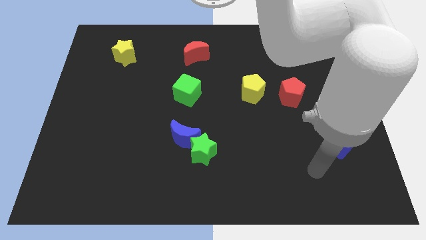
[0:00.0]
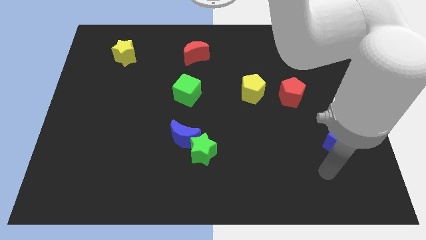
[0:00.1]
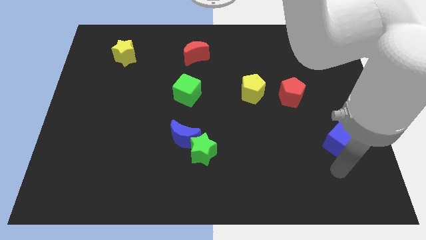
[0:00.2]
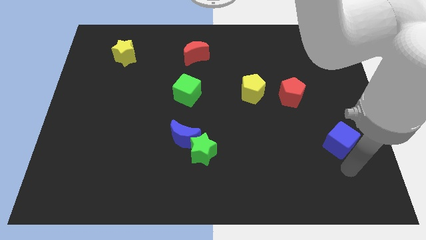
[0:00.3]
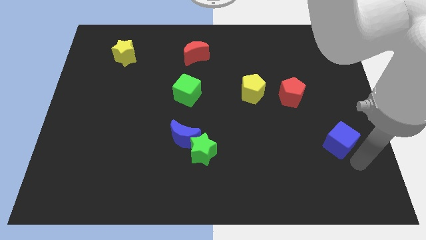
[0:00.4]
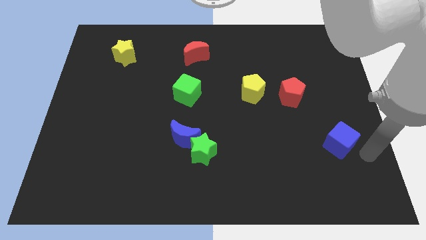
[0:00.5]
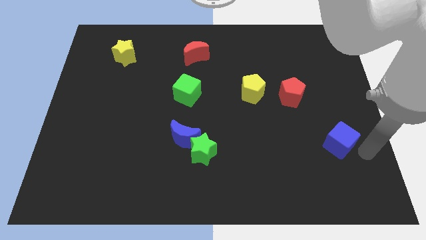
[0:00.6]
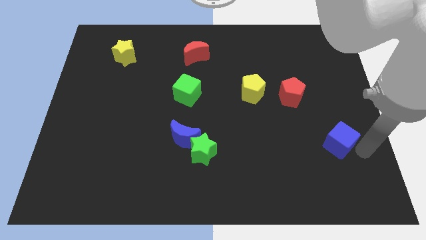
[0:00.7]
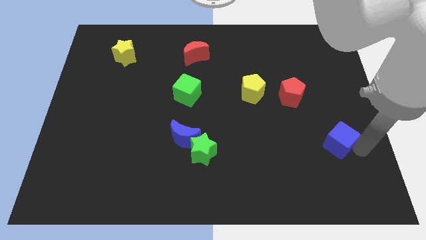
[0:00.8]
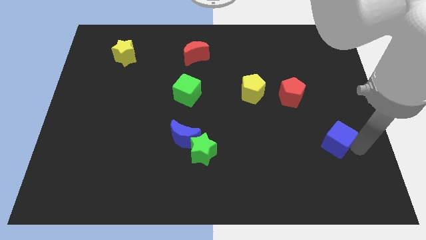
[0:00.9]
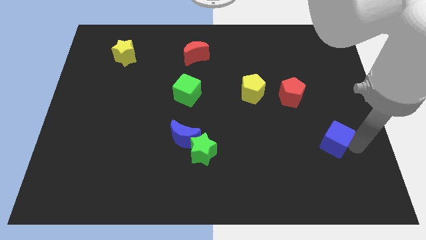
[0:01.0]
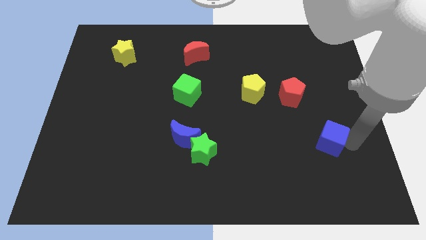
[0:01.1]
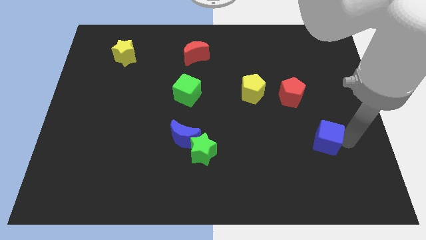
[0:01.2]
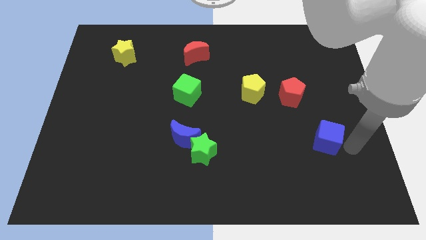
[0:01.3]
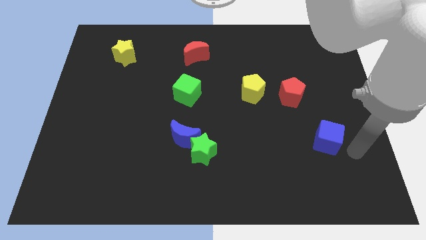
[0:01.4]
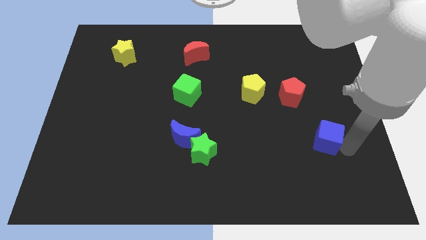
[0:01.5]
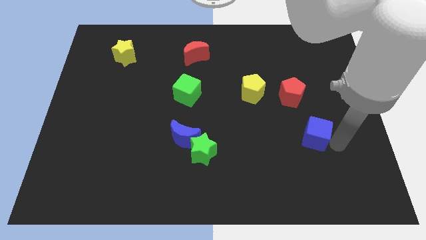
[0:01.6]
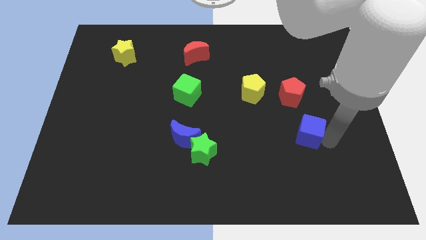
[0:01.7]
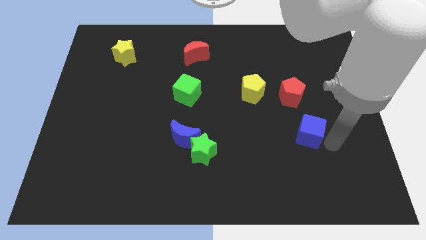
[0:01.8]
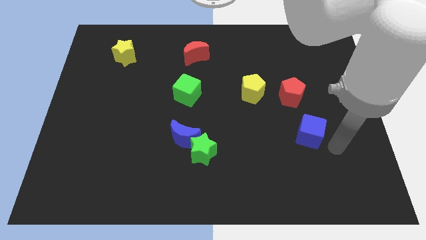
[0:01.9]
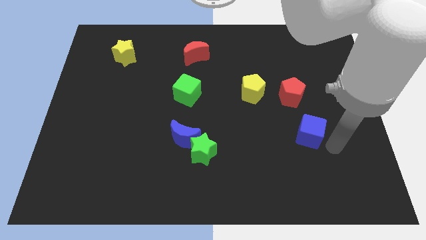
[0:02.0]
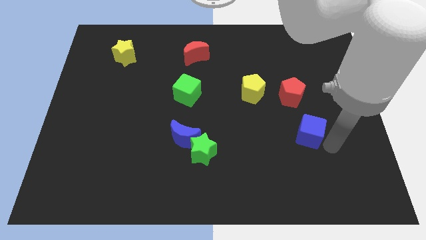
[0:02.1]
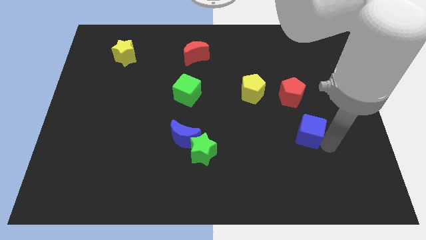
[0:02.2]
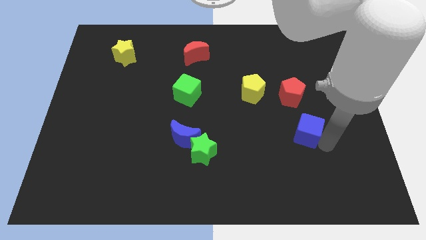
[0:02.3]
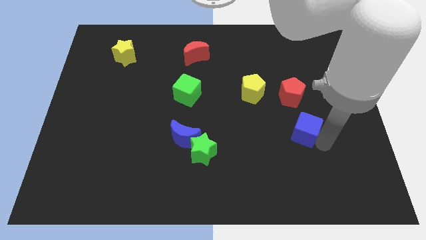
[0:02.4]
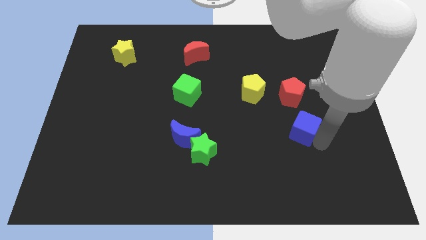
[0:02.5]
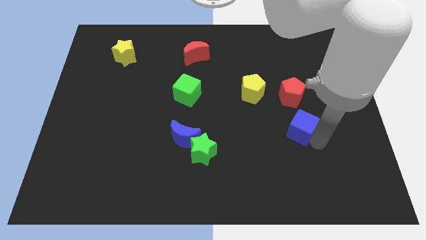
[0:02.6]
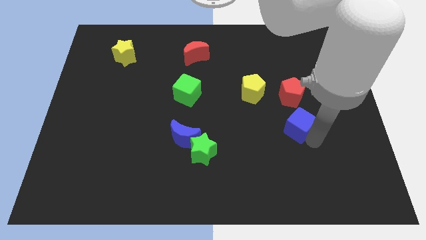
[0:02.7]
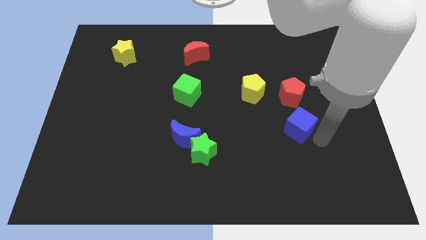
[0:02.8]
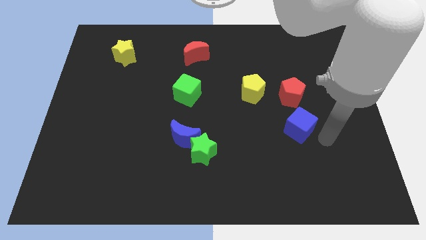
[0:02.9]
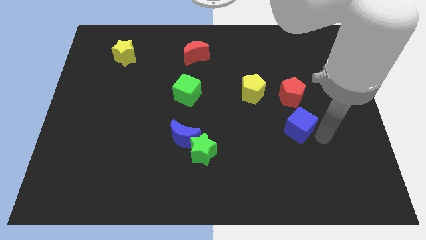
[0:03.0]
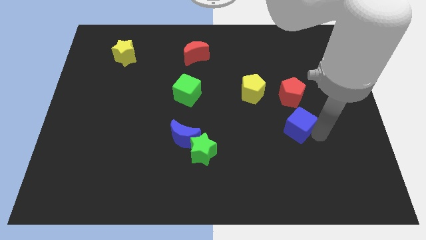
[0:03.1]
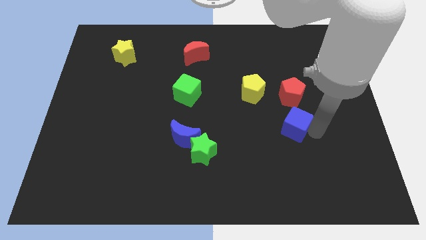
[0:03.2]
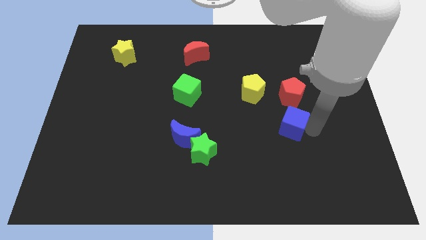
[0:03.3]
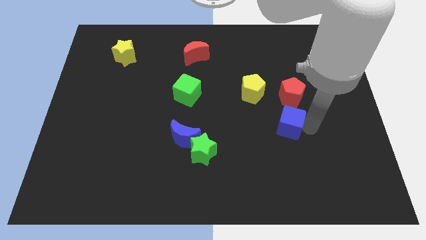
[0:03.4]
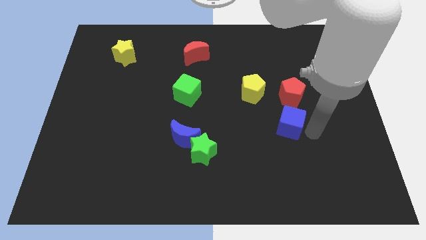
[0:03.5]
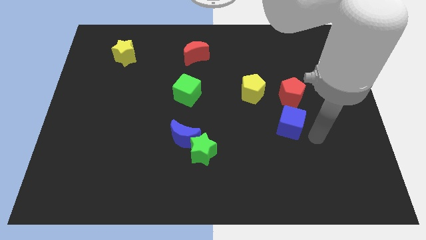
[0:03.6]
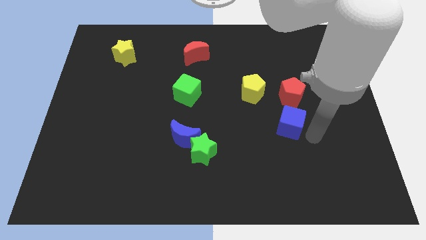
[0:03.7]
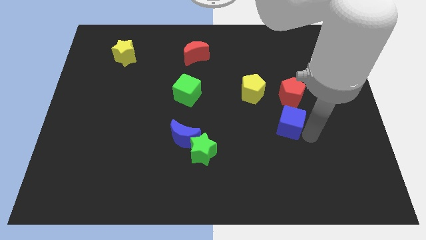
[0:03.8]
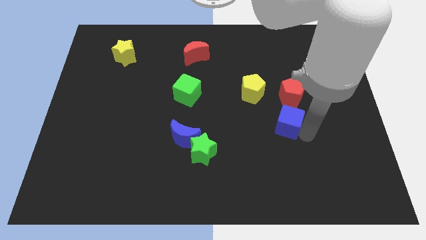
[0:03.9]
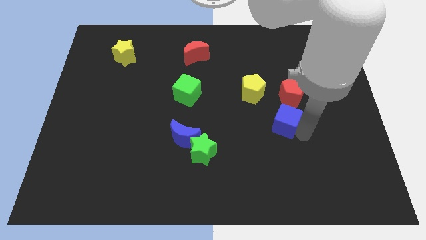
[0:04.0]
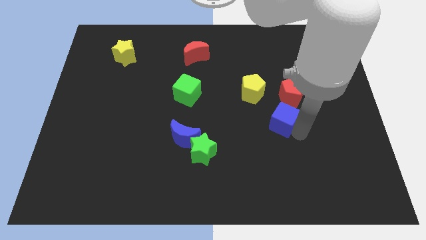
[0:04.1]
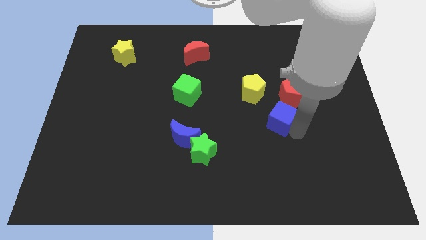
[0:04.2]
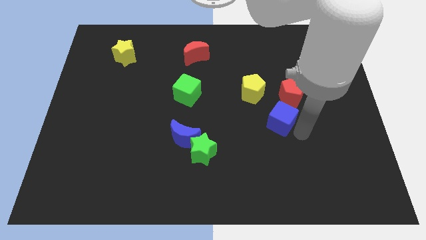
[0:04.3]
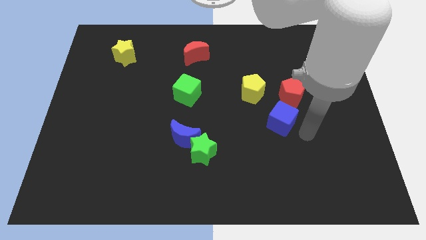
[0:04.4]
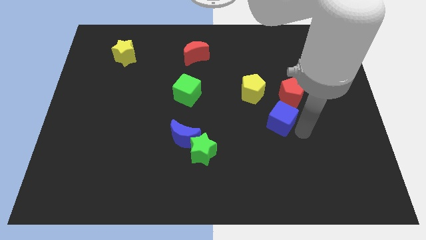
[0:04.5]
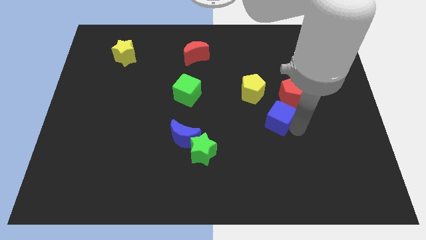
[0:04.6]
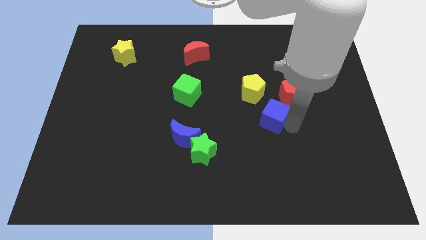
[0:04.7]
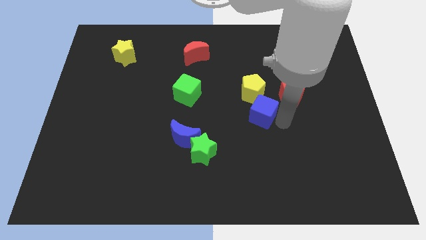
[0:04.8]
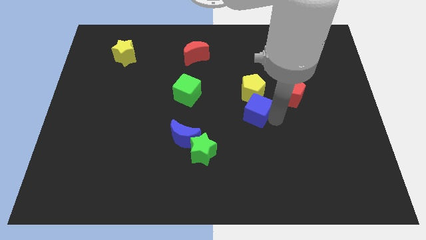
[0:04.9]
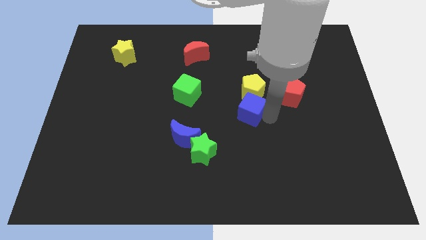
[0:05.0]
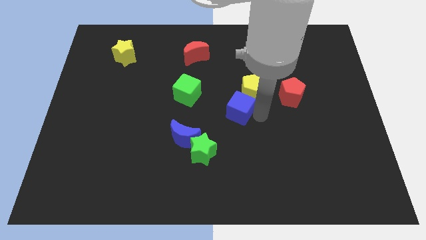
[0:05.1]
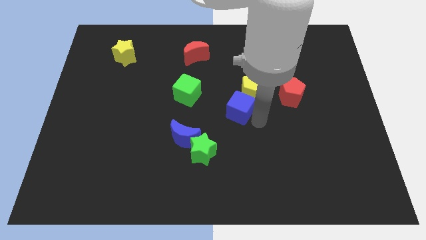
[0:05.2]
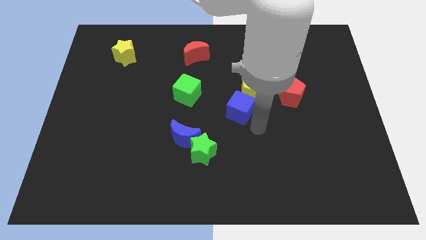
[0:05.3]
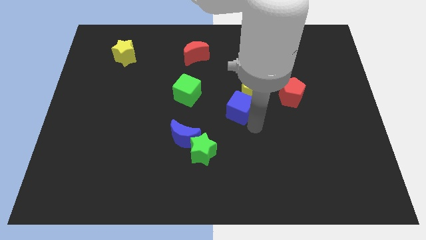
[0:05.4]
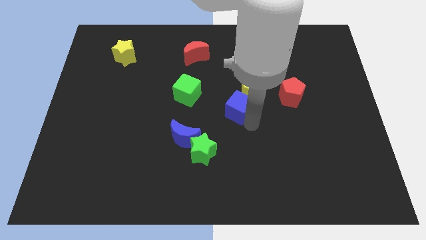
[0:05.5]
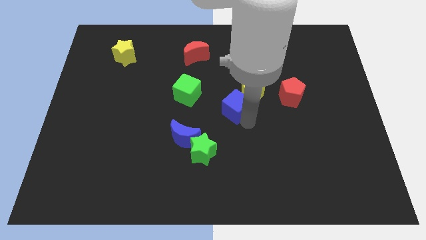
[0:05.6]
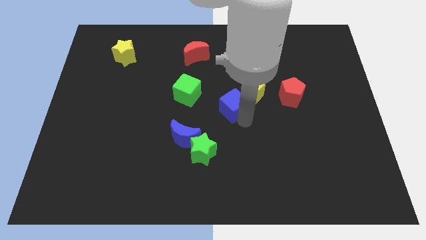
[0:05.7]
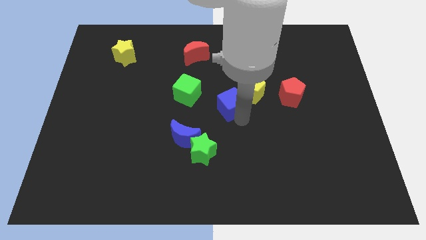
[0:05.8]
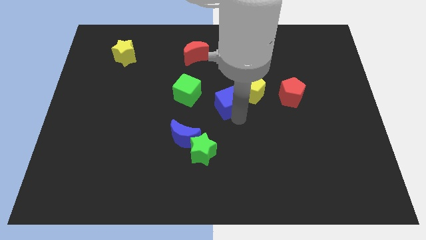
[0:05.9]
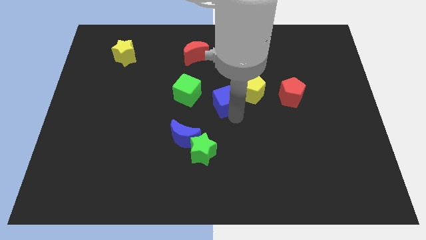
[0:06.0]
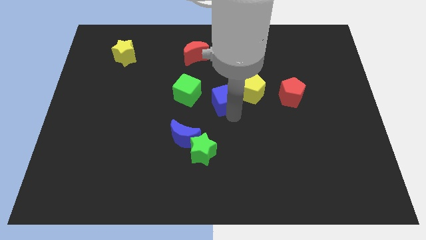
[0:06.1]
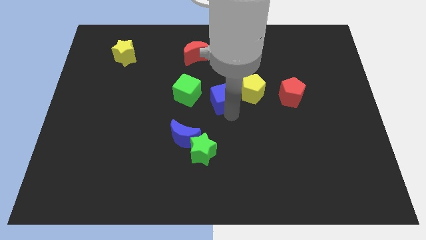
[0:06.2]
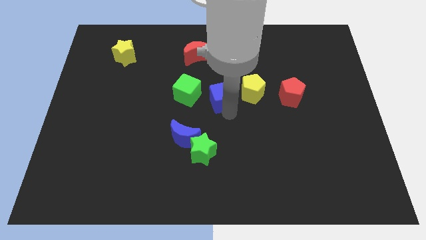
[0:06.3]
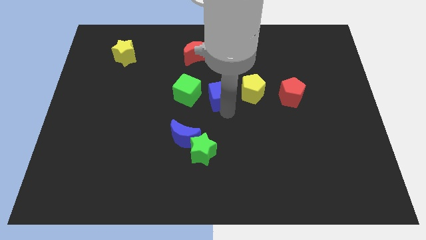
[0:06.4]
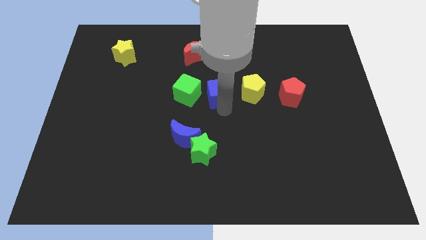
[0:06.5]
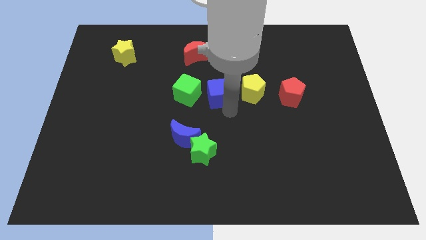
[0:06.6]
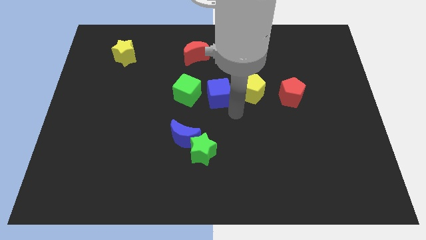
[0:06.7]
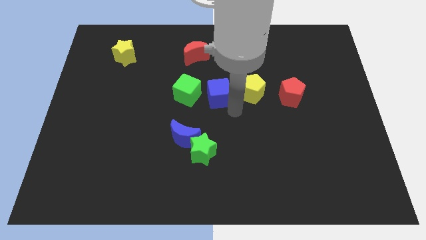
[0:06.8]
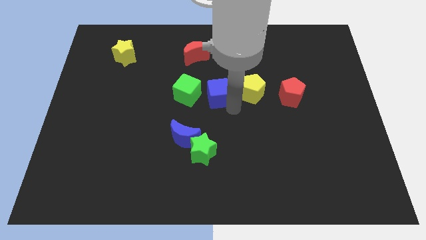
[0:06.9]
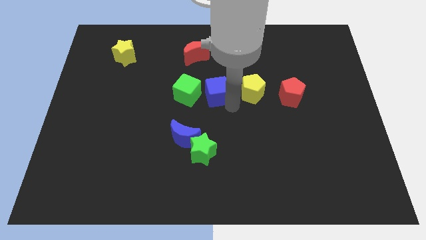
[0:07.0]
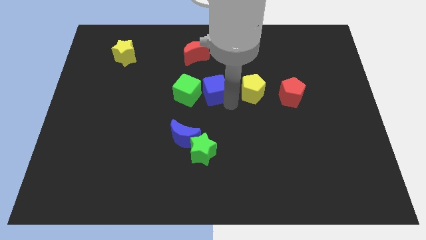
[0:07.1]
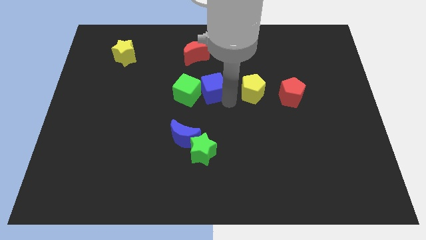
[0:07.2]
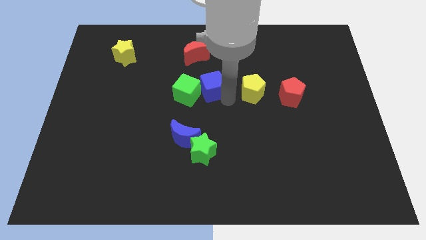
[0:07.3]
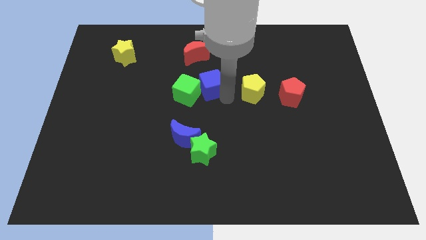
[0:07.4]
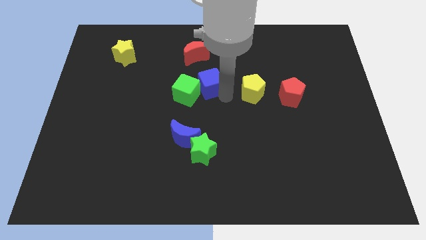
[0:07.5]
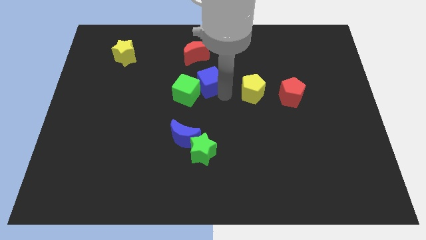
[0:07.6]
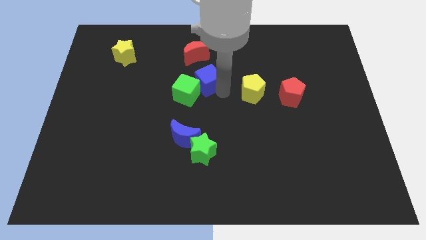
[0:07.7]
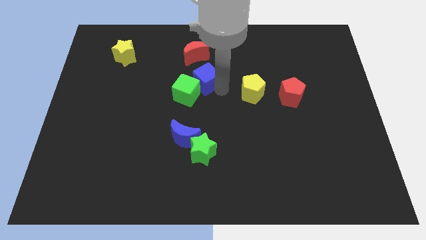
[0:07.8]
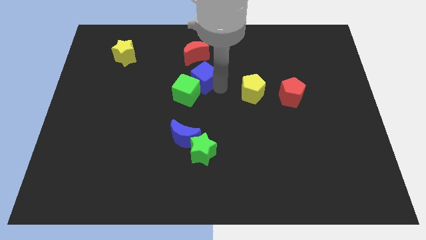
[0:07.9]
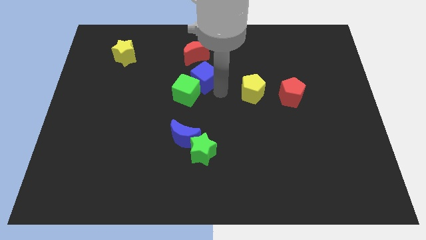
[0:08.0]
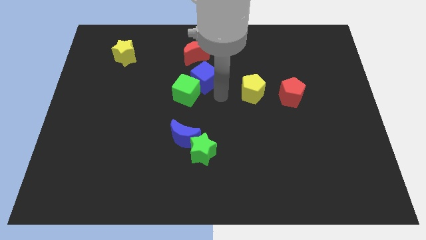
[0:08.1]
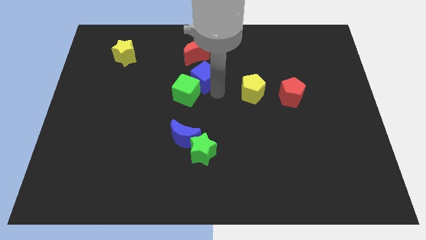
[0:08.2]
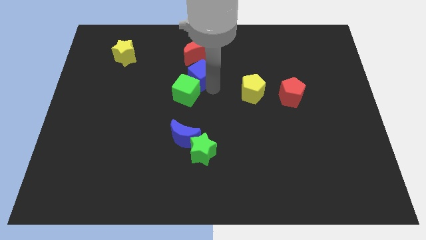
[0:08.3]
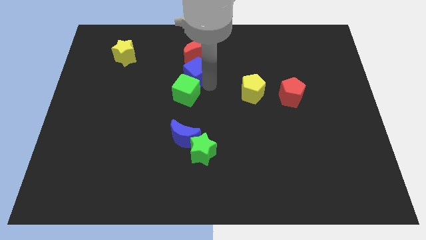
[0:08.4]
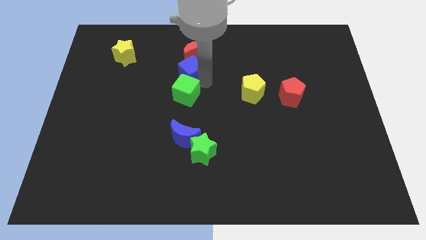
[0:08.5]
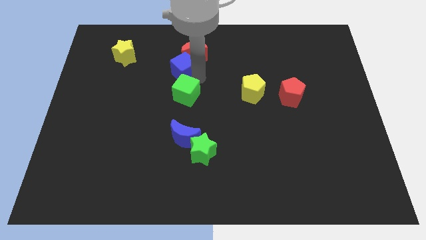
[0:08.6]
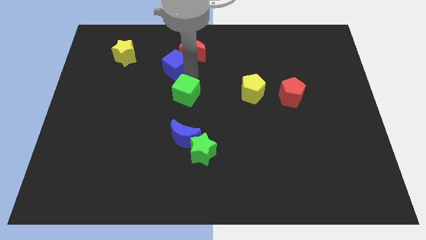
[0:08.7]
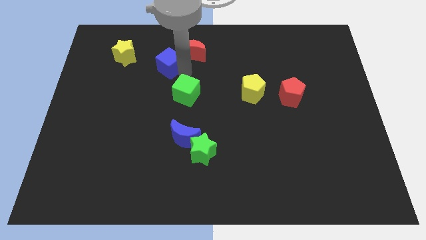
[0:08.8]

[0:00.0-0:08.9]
slide the blue cube to the right of the yellow star
